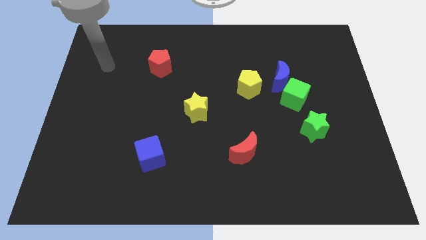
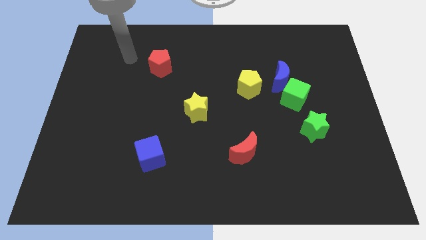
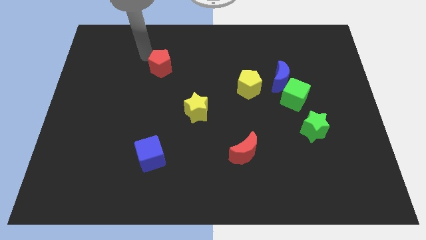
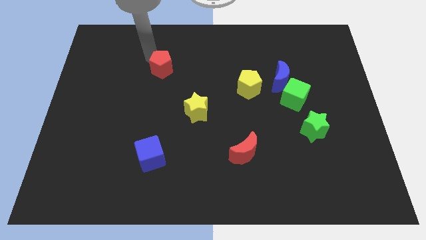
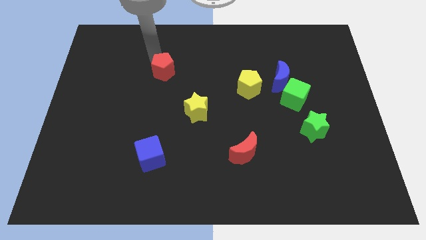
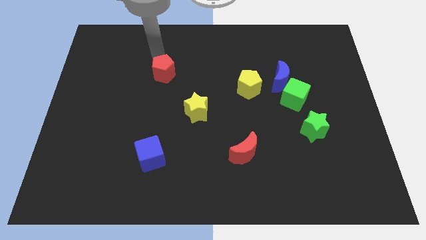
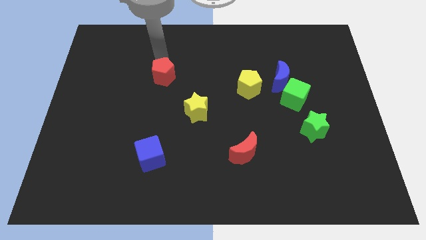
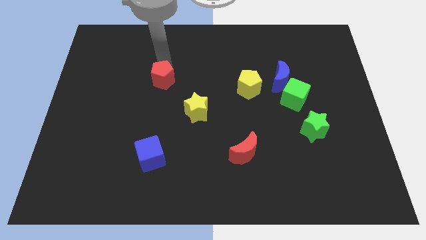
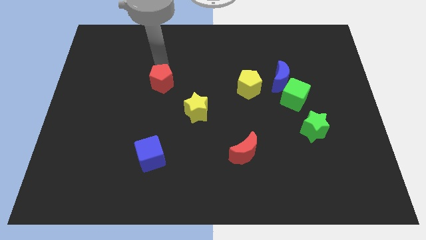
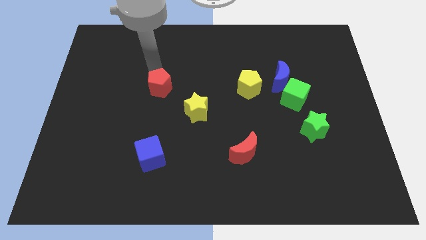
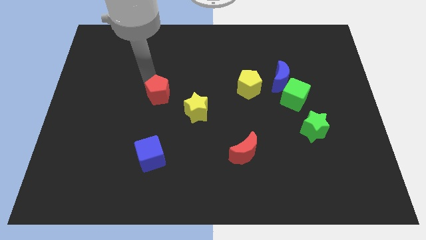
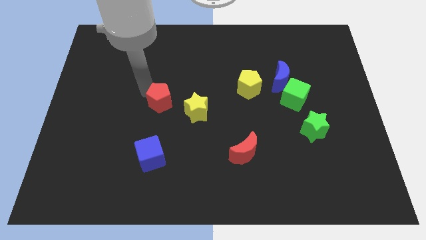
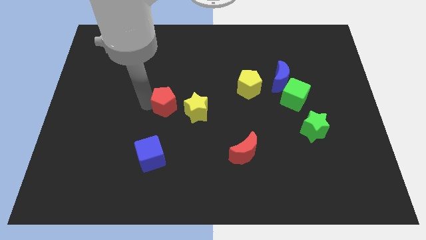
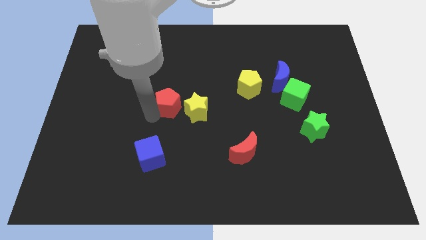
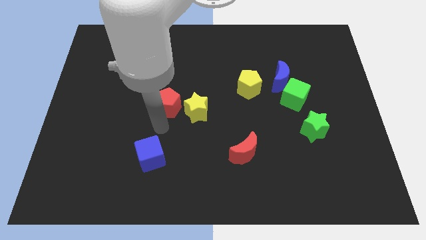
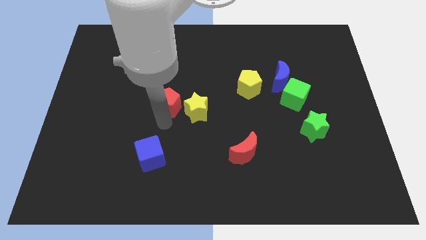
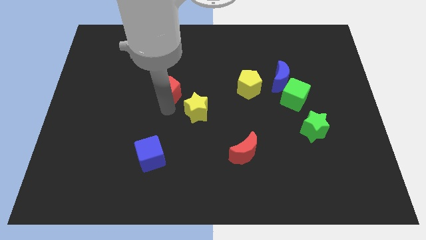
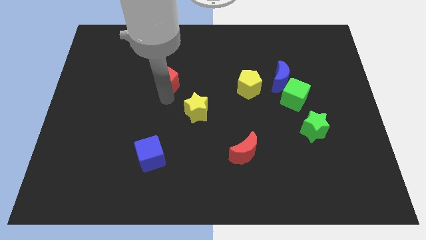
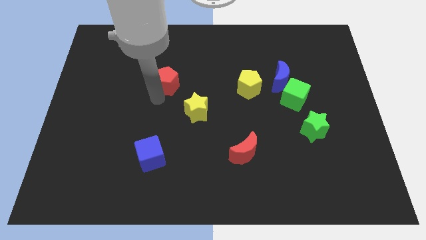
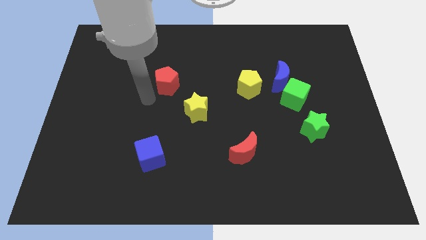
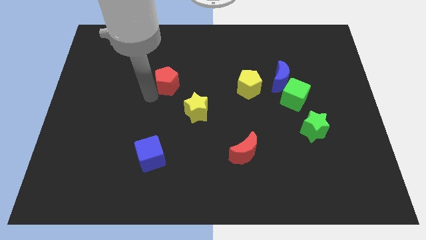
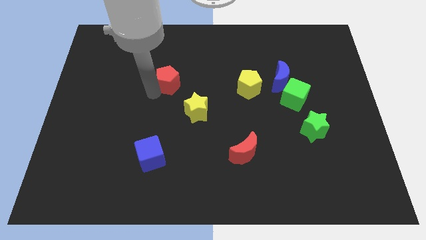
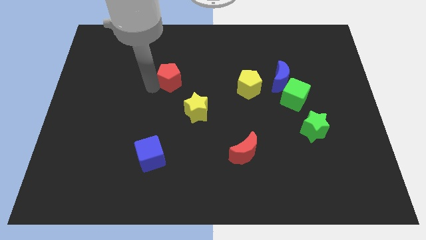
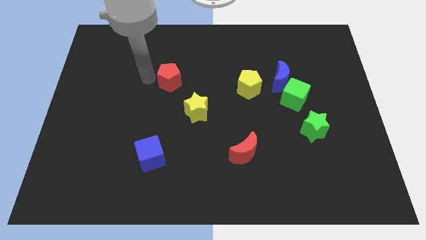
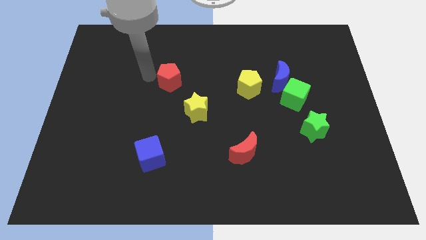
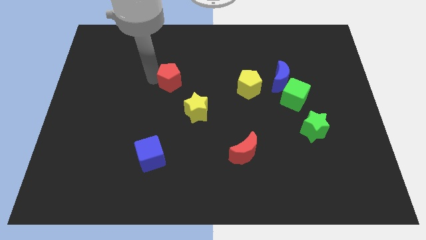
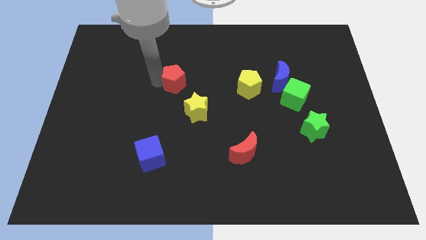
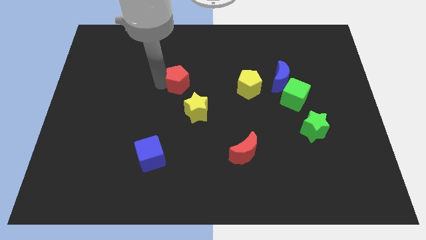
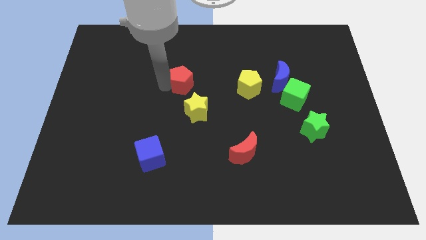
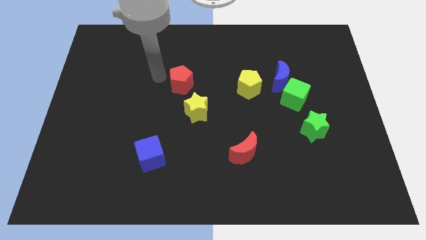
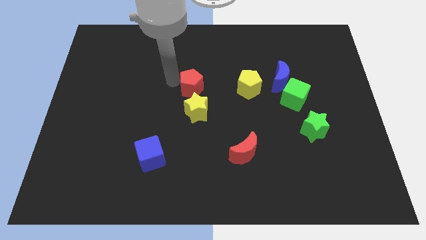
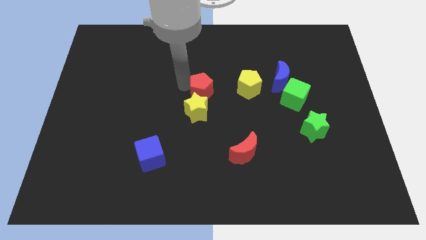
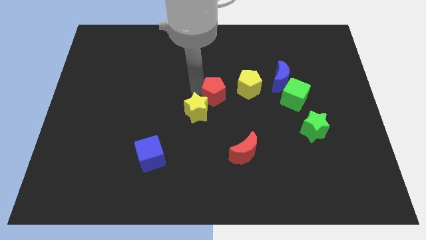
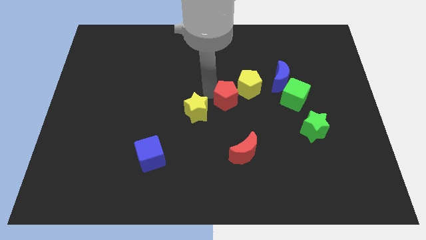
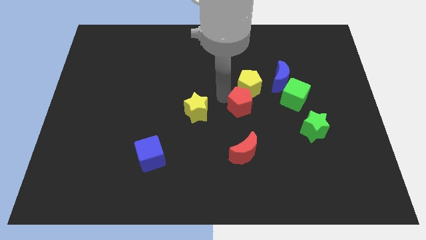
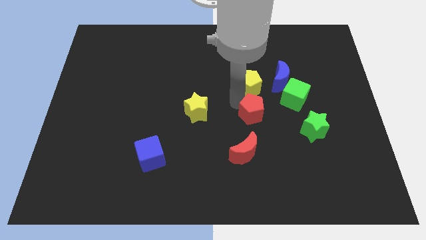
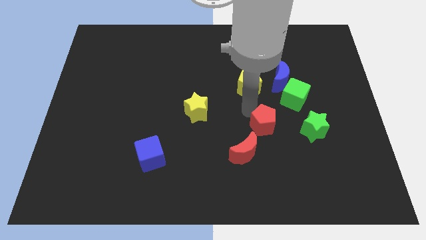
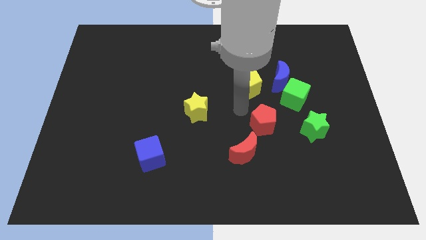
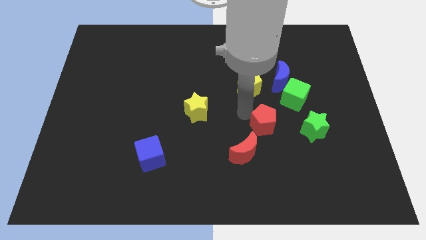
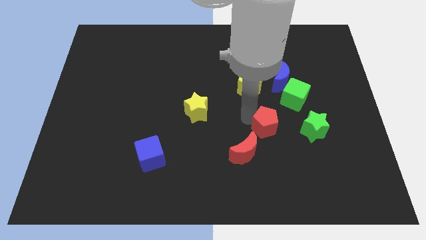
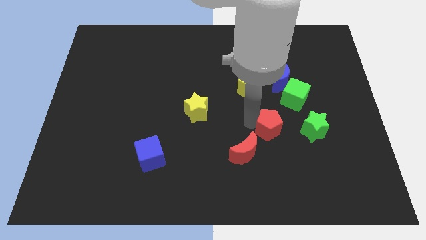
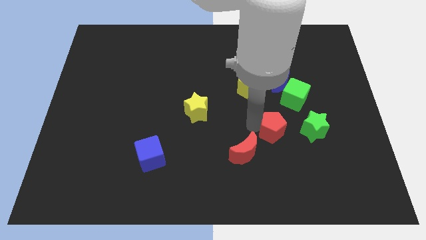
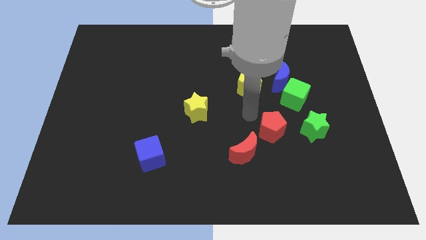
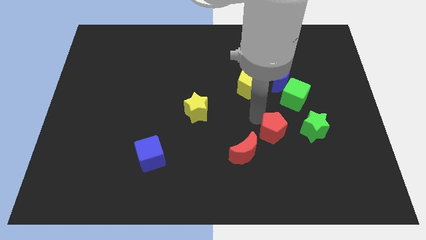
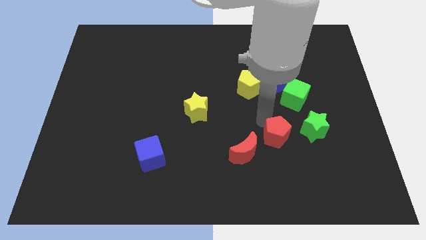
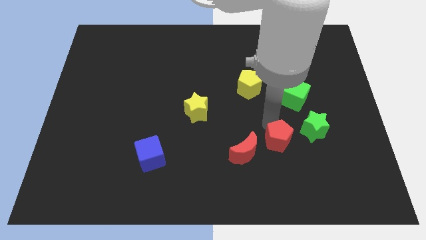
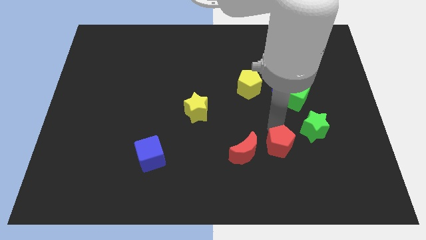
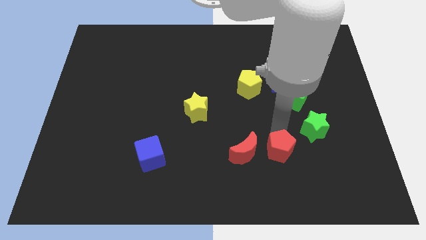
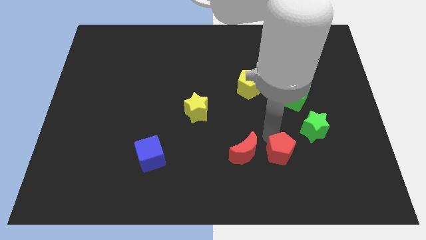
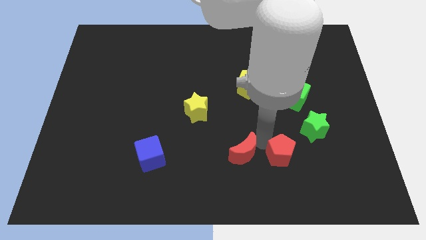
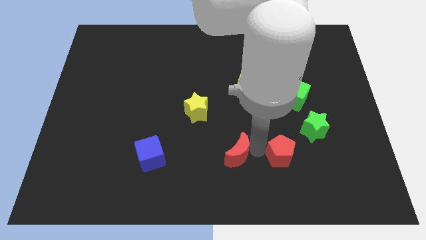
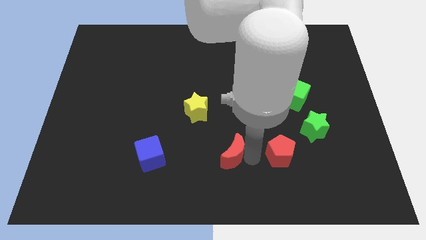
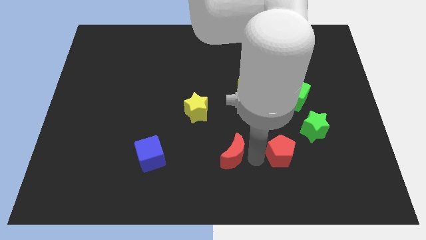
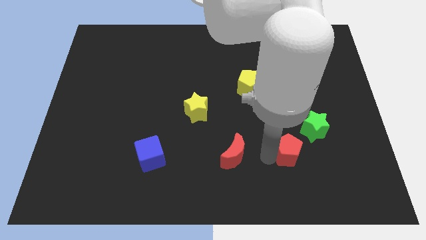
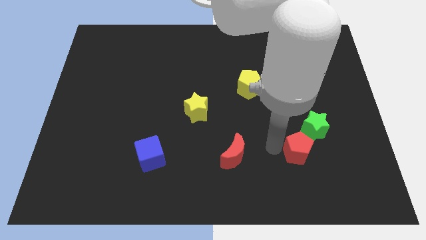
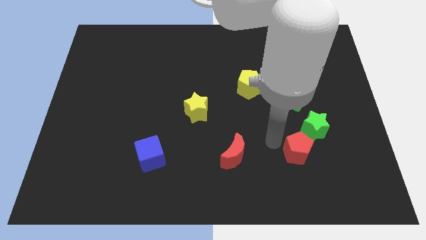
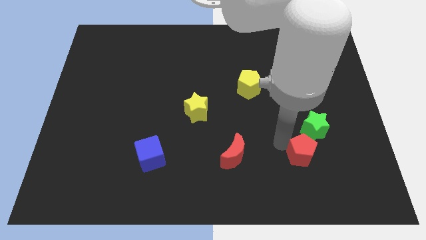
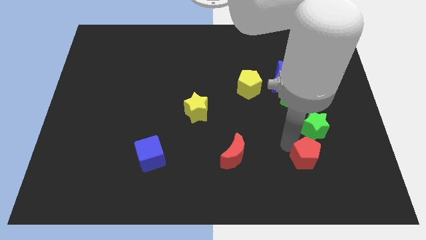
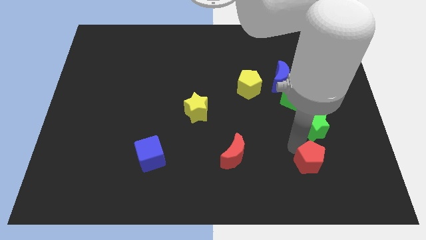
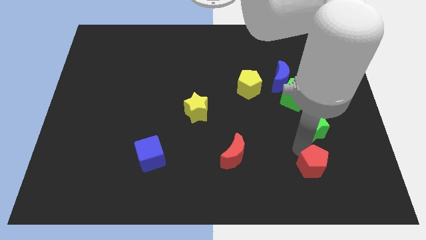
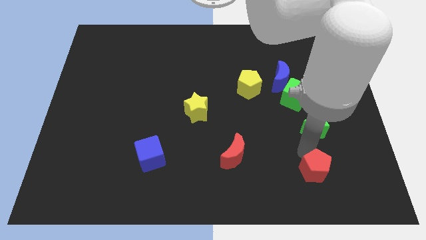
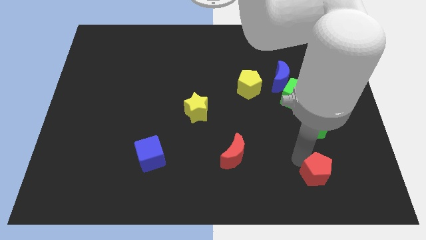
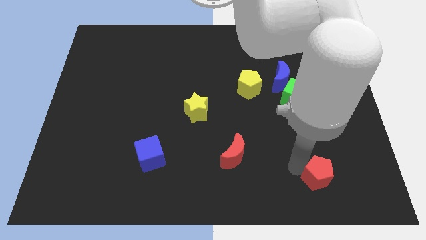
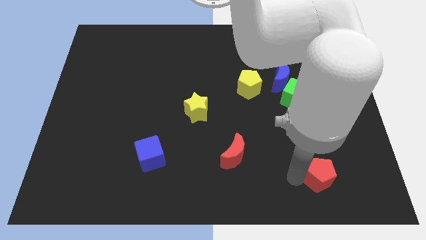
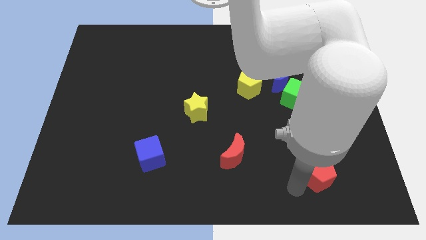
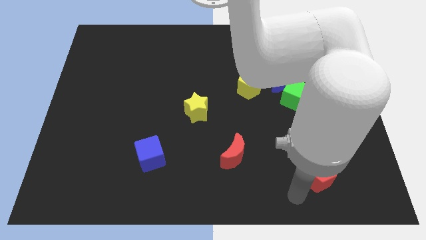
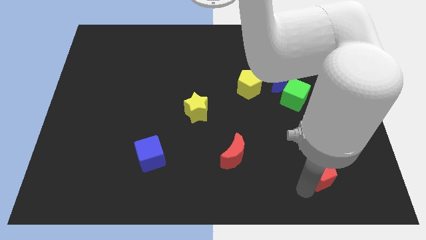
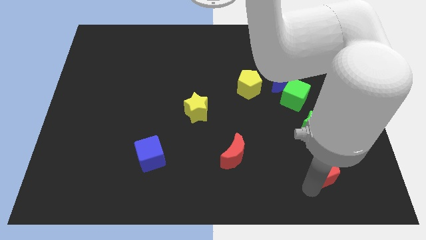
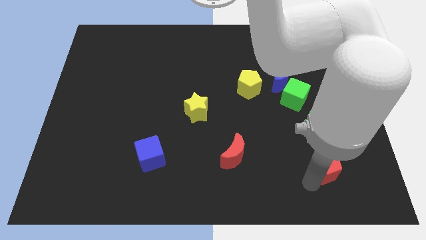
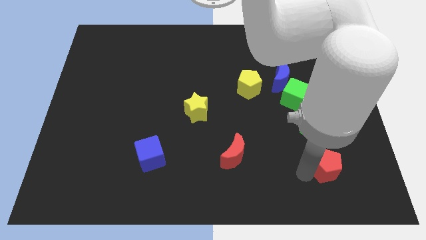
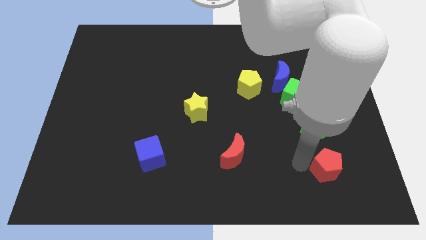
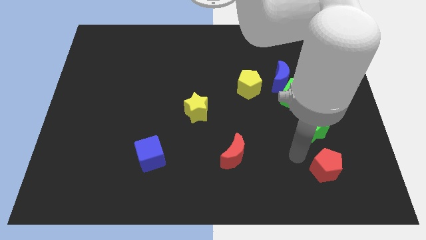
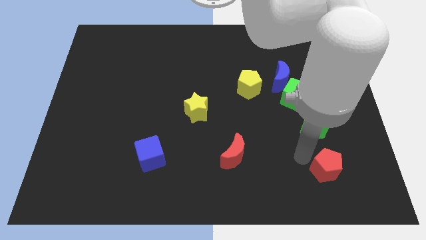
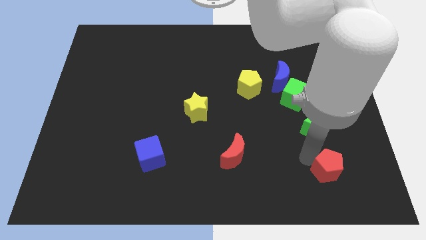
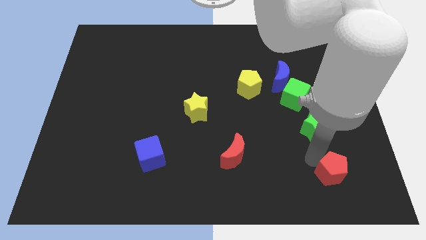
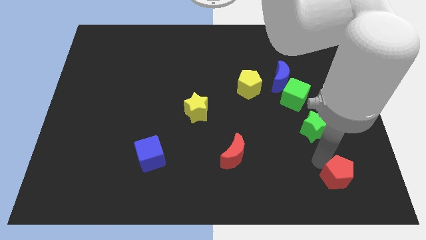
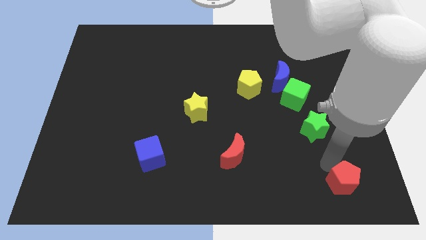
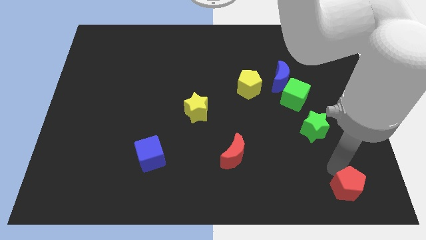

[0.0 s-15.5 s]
put the red pentagon to the lower right corner
